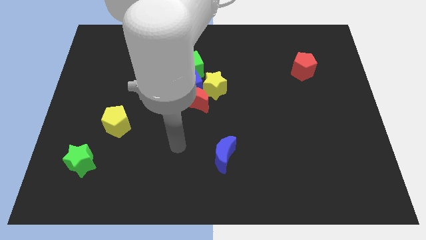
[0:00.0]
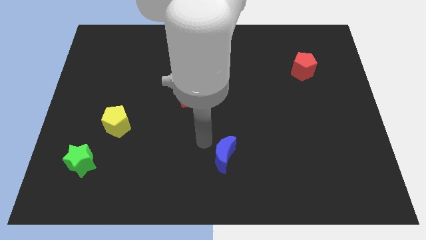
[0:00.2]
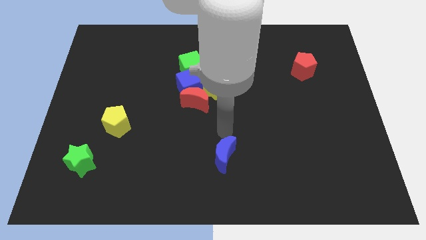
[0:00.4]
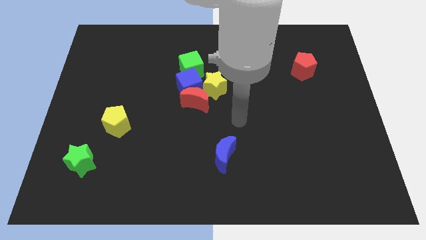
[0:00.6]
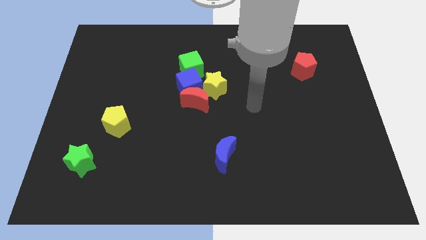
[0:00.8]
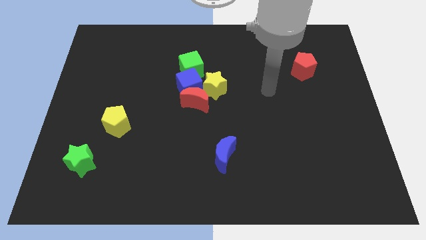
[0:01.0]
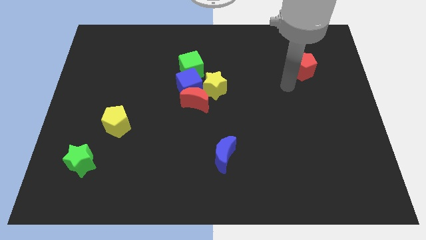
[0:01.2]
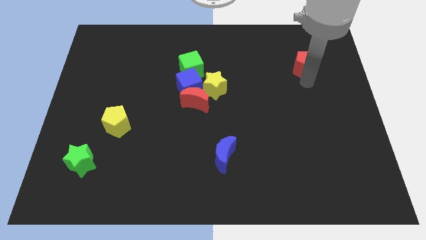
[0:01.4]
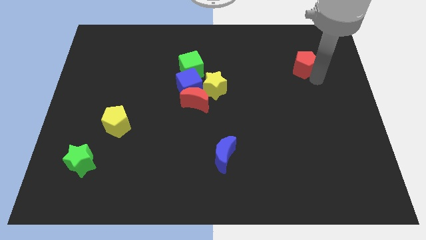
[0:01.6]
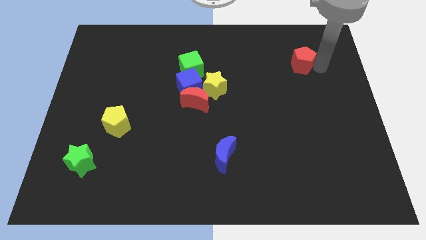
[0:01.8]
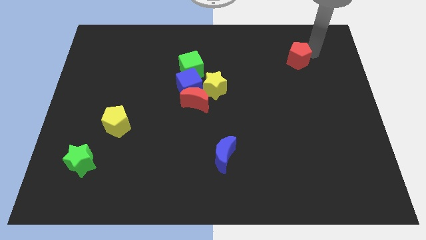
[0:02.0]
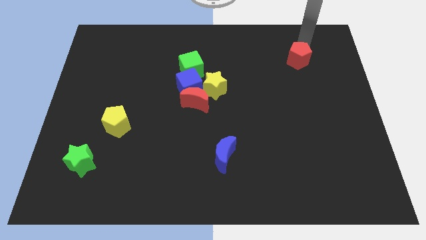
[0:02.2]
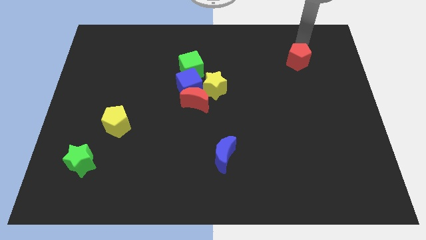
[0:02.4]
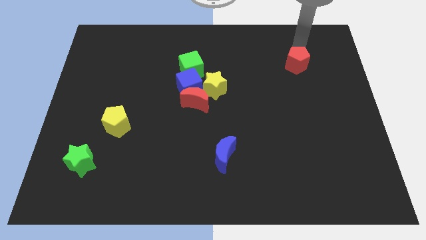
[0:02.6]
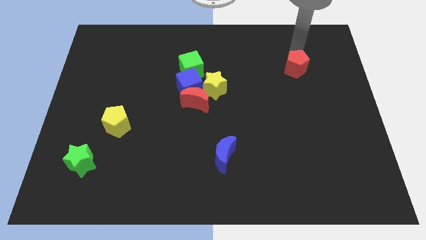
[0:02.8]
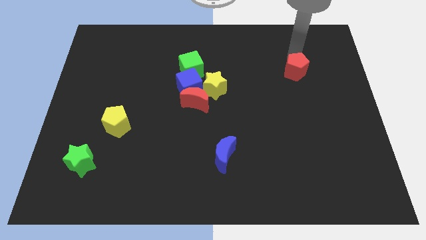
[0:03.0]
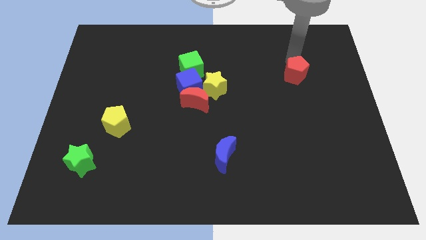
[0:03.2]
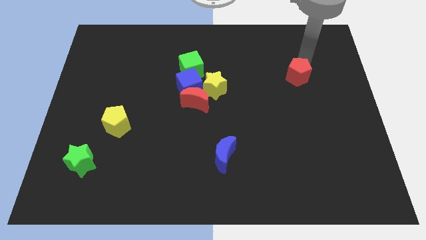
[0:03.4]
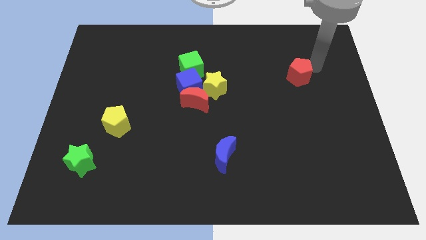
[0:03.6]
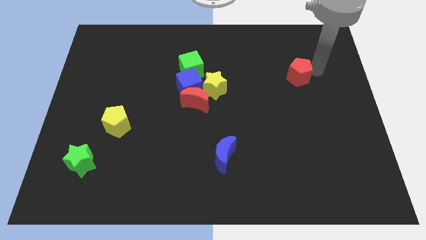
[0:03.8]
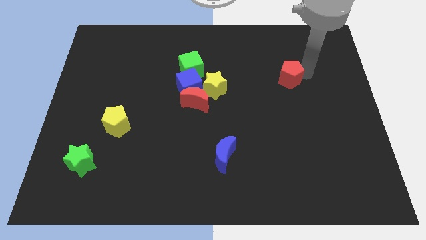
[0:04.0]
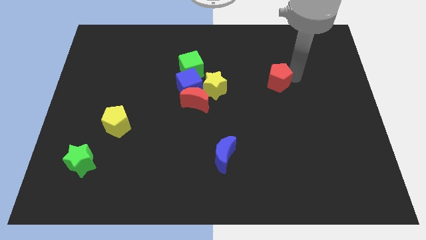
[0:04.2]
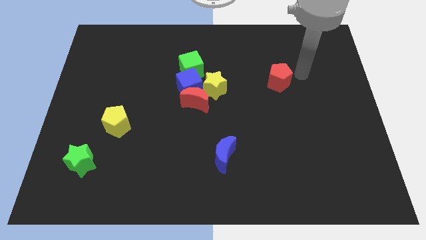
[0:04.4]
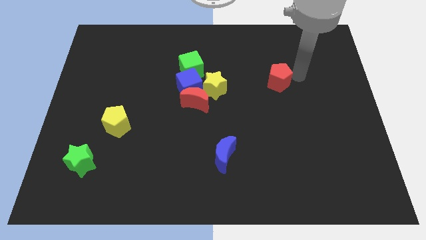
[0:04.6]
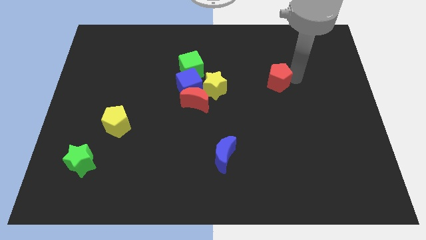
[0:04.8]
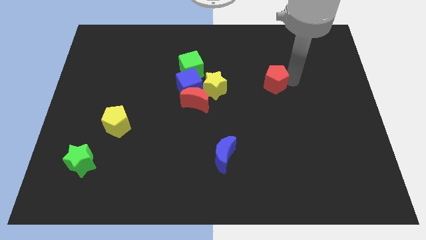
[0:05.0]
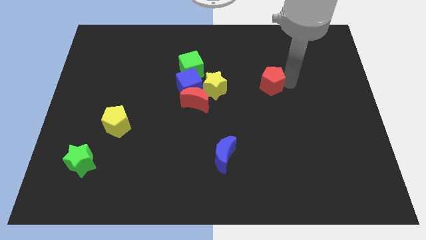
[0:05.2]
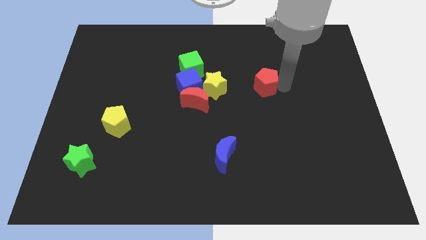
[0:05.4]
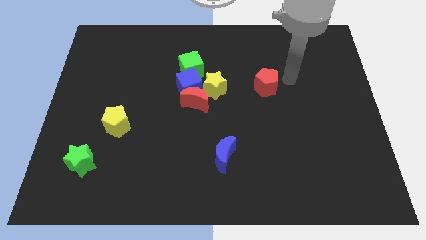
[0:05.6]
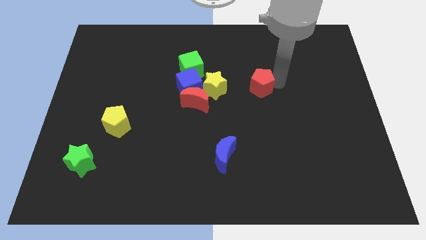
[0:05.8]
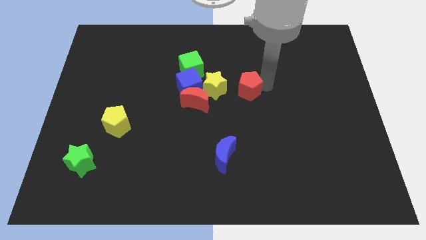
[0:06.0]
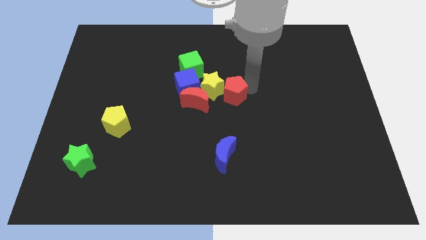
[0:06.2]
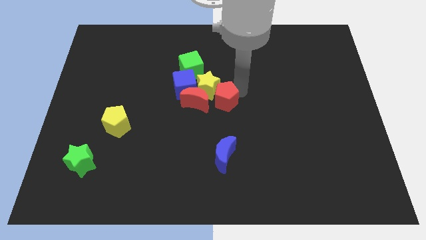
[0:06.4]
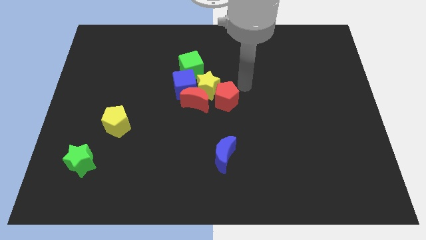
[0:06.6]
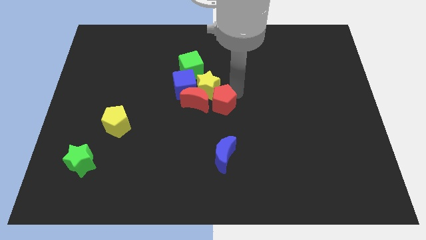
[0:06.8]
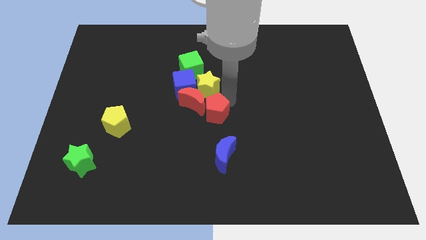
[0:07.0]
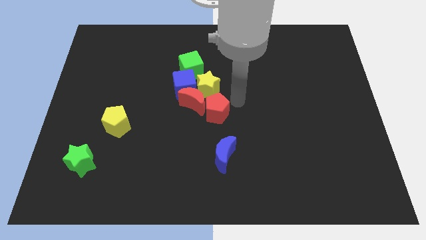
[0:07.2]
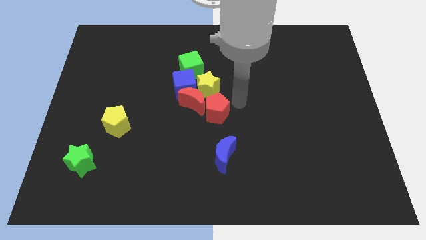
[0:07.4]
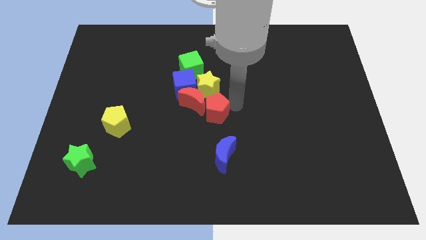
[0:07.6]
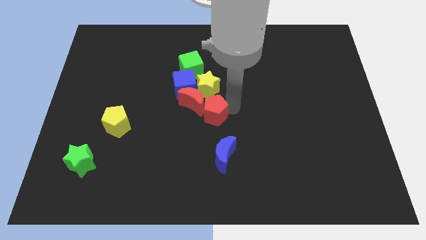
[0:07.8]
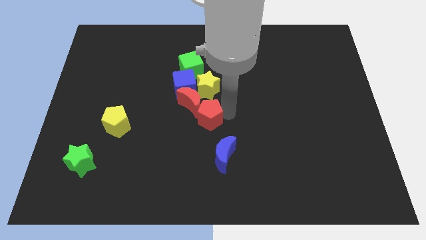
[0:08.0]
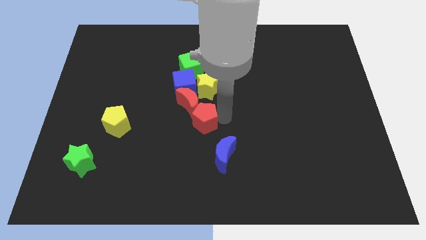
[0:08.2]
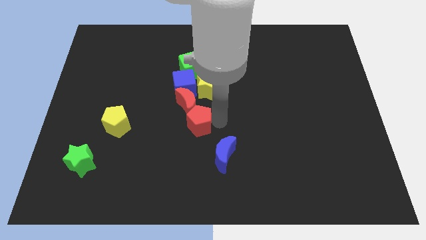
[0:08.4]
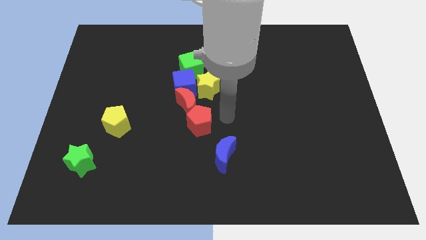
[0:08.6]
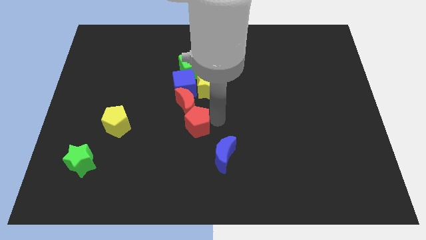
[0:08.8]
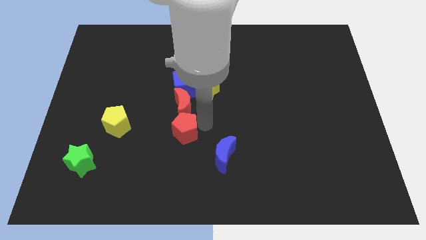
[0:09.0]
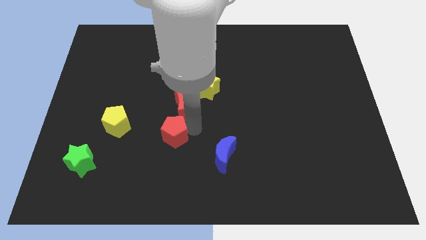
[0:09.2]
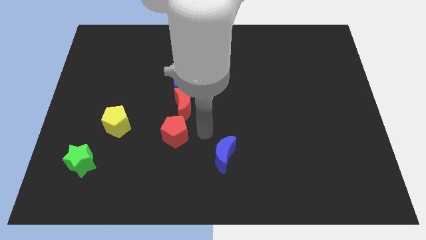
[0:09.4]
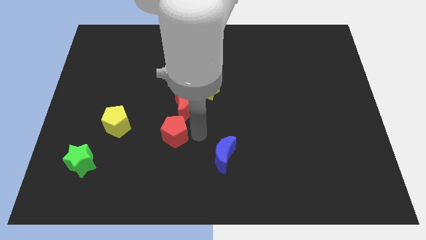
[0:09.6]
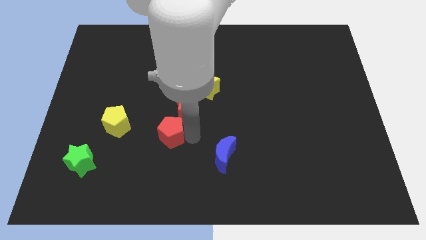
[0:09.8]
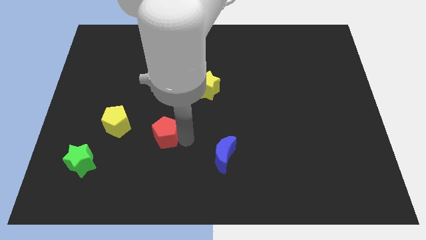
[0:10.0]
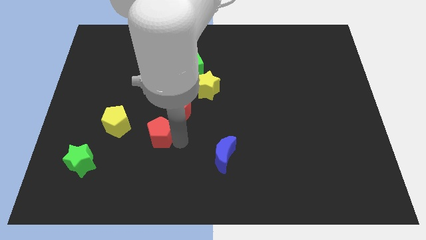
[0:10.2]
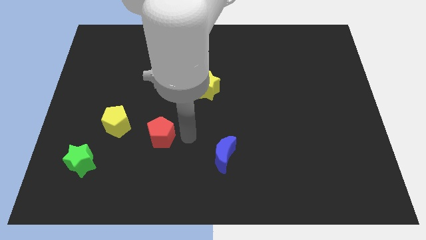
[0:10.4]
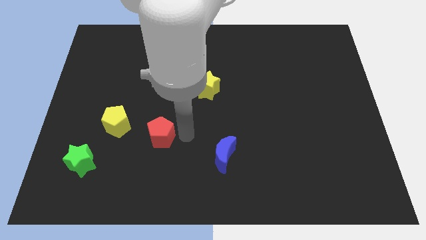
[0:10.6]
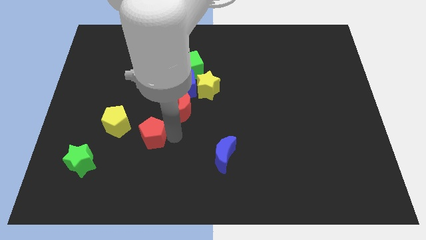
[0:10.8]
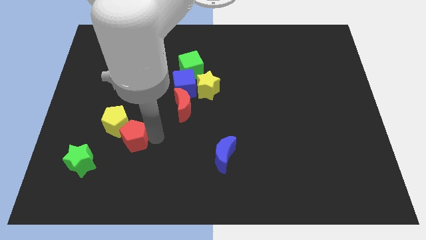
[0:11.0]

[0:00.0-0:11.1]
slide the red pentagon diagonally up and to the right of the green star

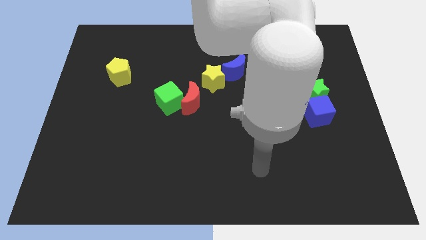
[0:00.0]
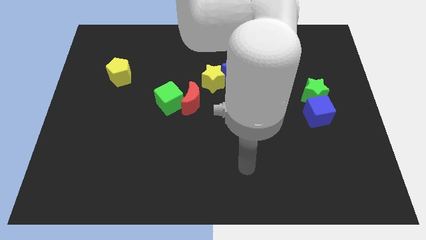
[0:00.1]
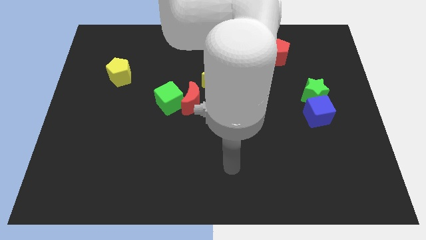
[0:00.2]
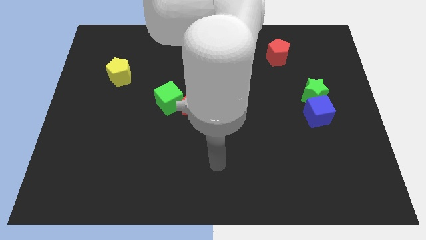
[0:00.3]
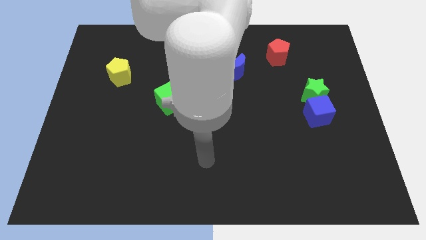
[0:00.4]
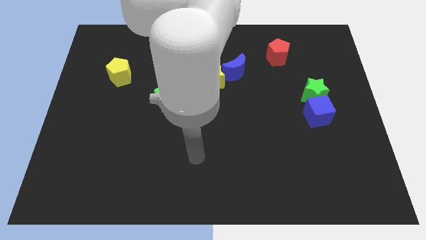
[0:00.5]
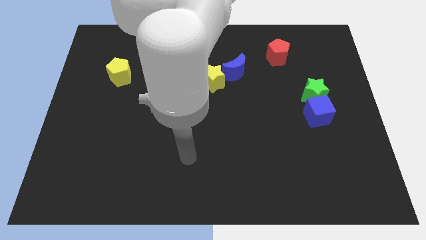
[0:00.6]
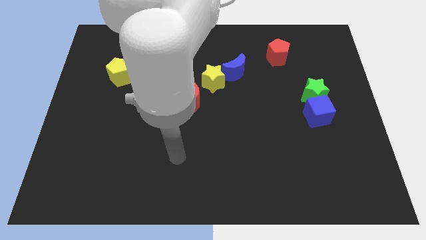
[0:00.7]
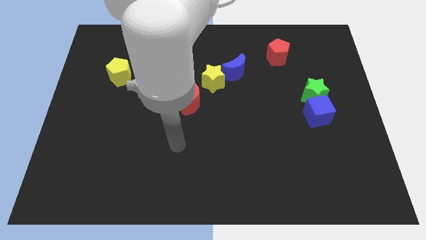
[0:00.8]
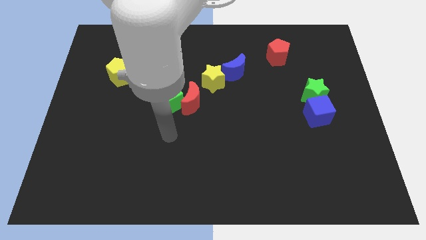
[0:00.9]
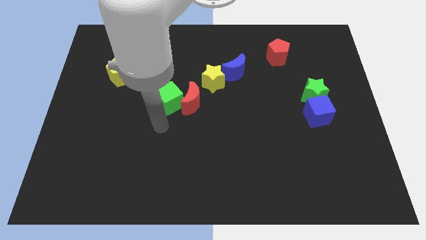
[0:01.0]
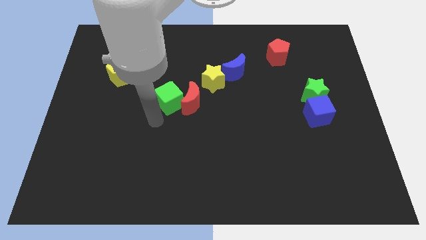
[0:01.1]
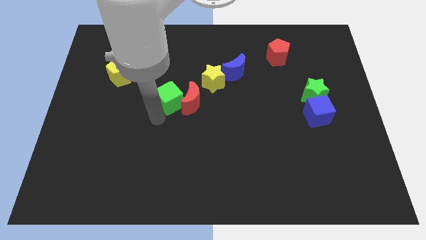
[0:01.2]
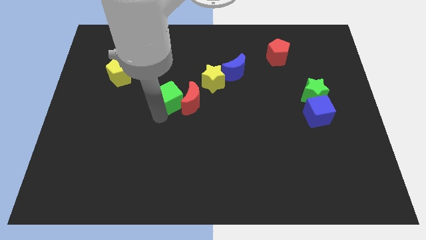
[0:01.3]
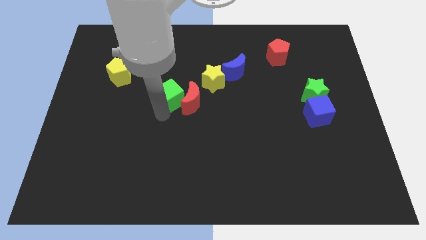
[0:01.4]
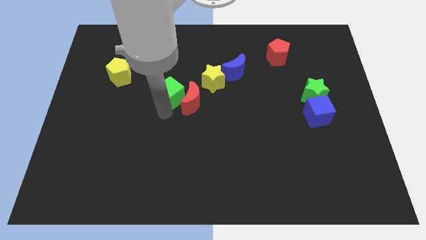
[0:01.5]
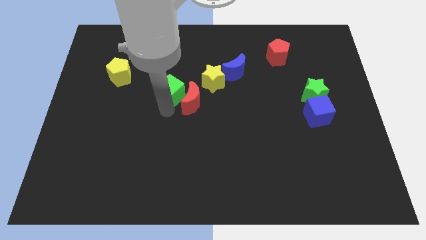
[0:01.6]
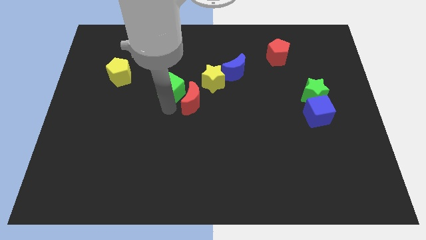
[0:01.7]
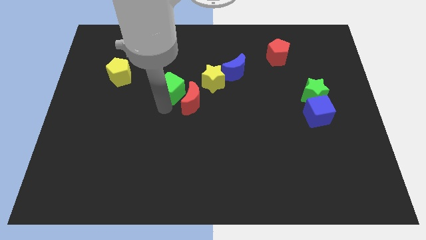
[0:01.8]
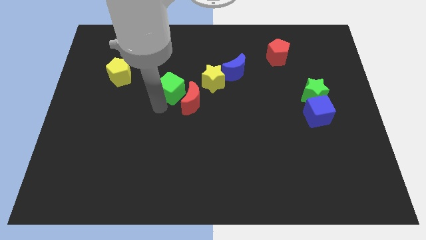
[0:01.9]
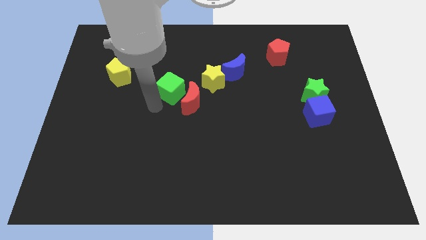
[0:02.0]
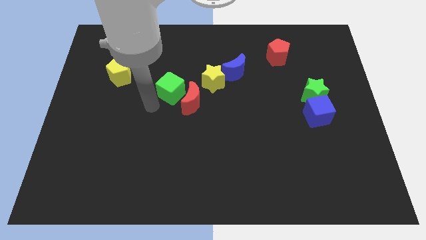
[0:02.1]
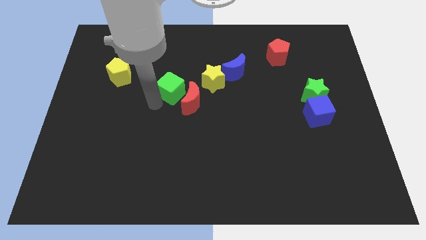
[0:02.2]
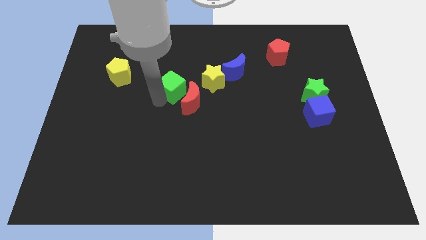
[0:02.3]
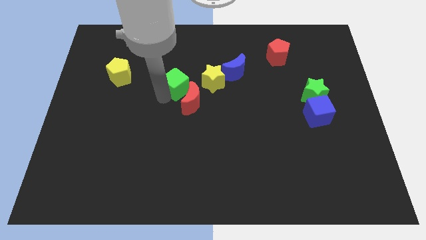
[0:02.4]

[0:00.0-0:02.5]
slide the green cube to the top of the red moon
